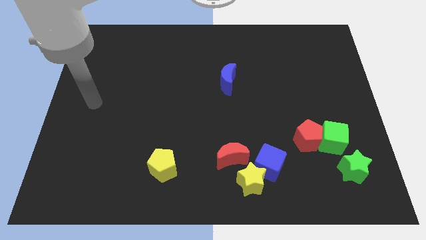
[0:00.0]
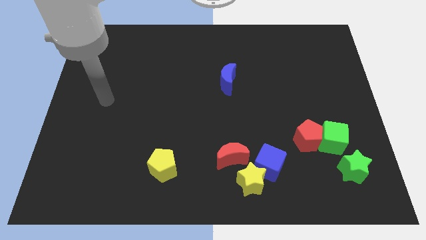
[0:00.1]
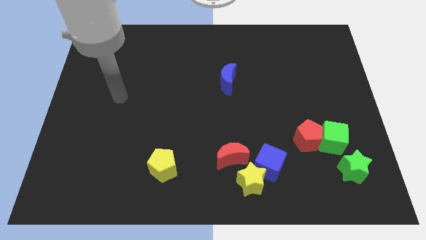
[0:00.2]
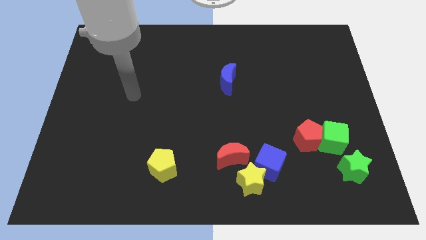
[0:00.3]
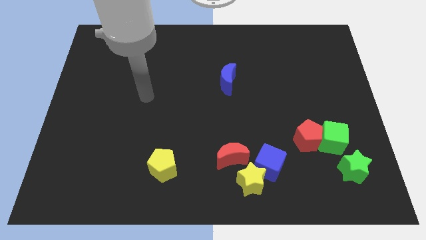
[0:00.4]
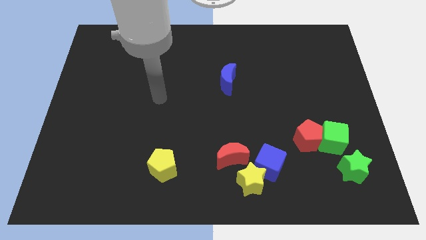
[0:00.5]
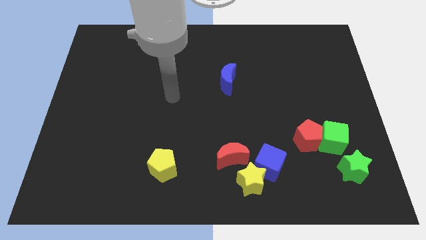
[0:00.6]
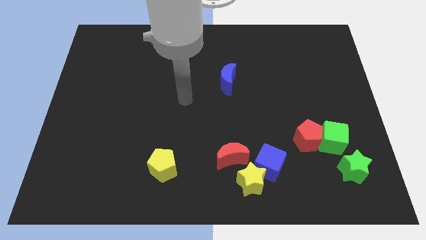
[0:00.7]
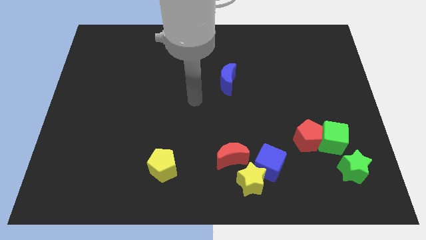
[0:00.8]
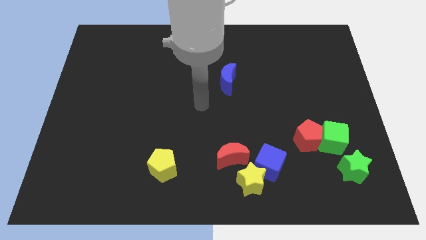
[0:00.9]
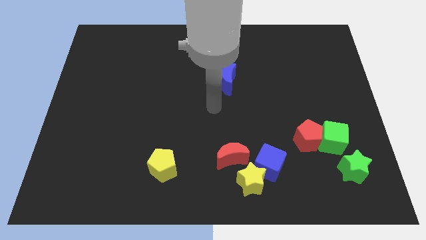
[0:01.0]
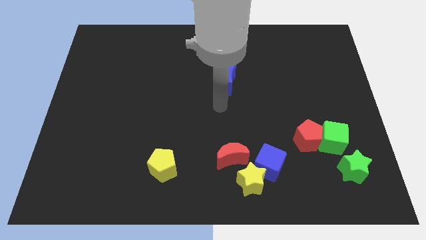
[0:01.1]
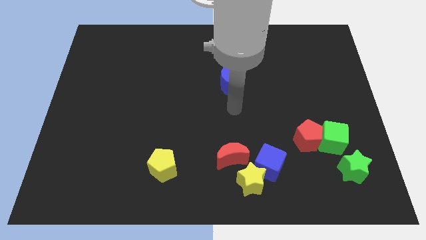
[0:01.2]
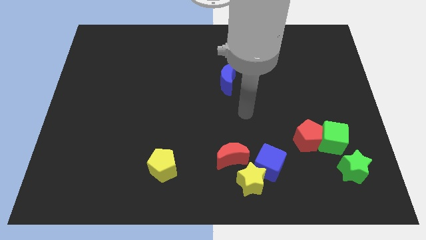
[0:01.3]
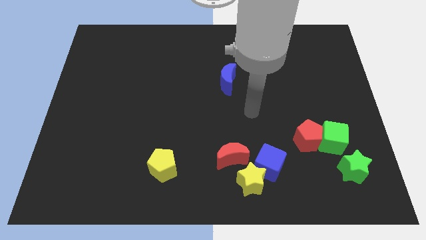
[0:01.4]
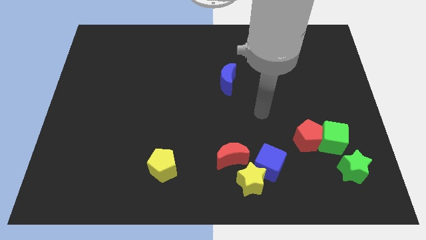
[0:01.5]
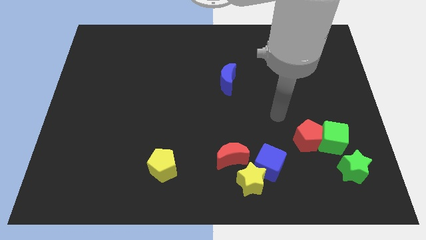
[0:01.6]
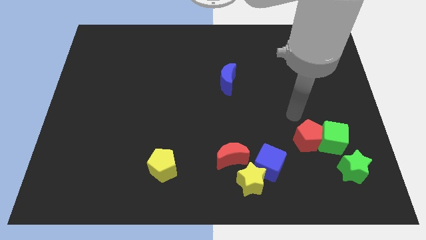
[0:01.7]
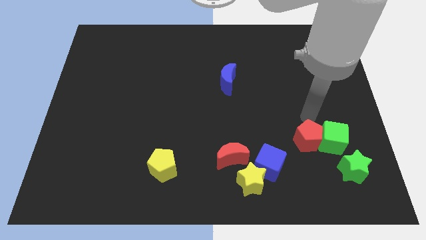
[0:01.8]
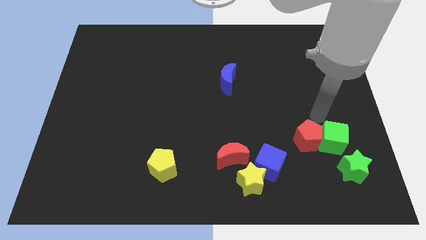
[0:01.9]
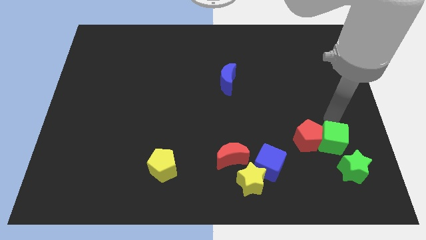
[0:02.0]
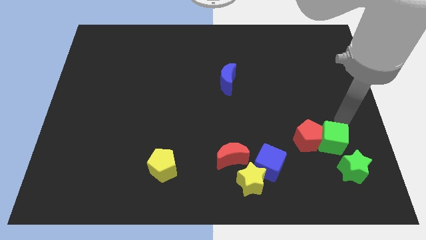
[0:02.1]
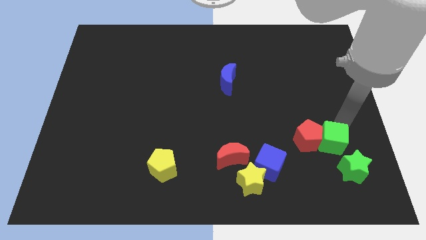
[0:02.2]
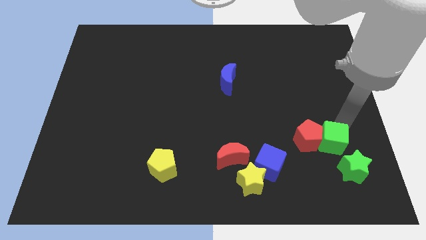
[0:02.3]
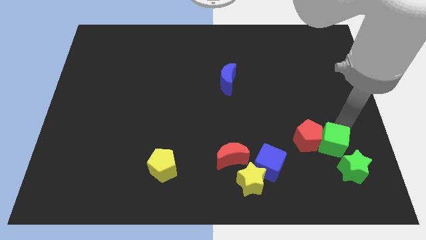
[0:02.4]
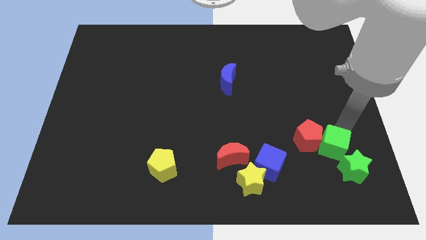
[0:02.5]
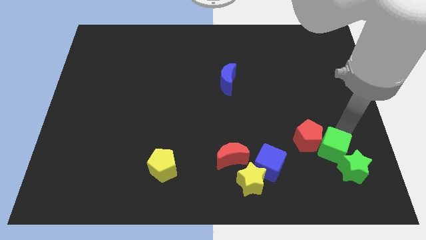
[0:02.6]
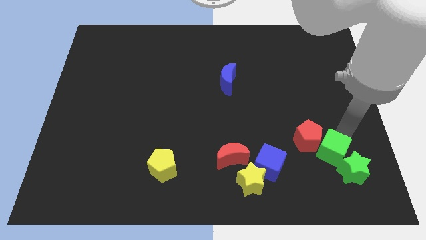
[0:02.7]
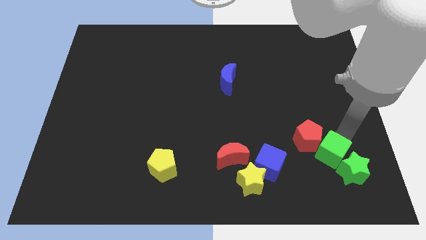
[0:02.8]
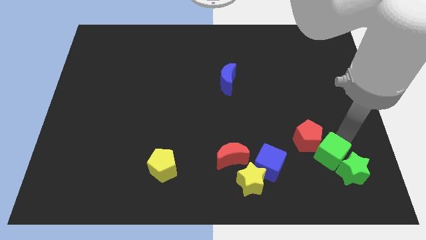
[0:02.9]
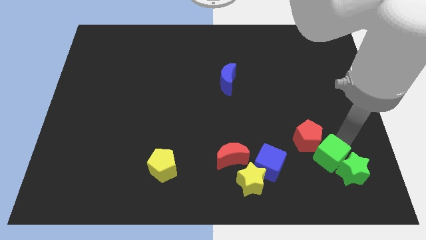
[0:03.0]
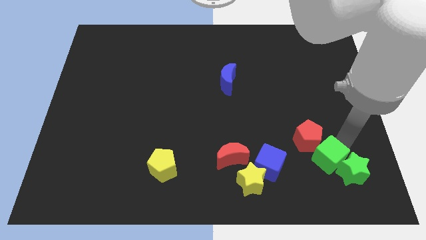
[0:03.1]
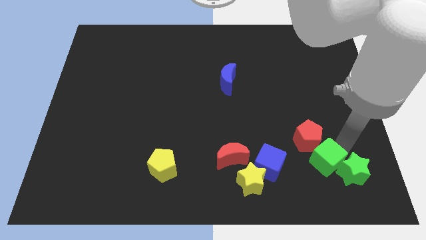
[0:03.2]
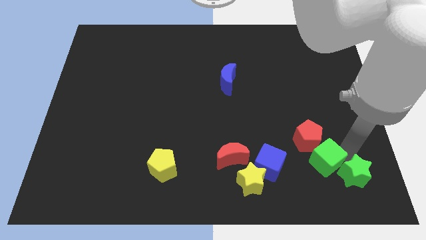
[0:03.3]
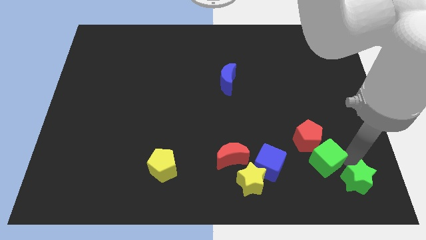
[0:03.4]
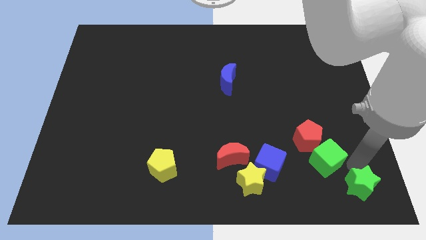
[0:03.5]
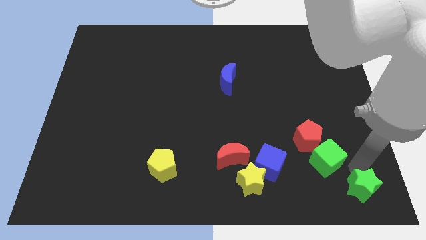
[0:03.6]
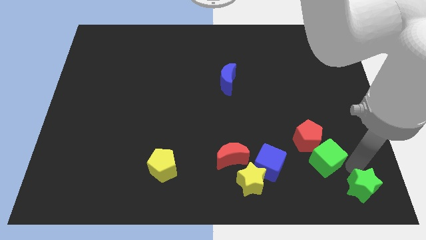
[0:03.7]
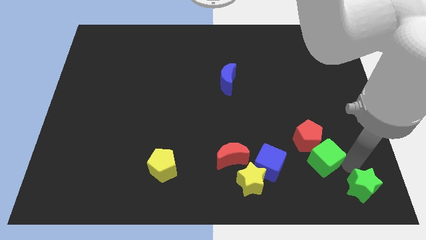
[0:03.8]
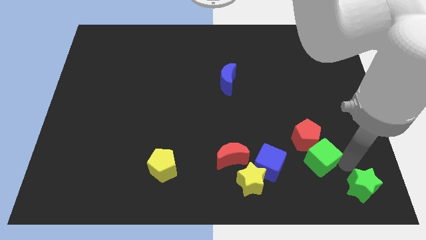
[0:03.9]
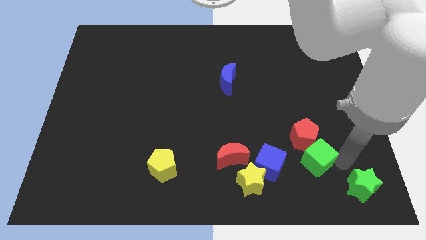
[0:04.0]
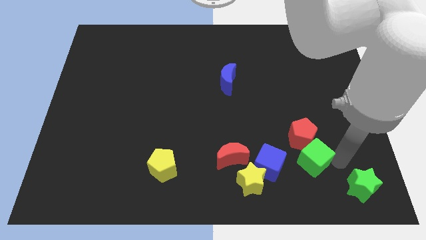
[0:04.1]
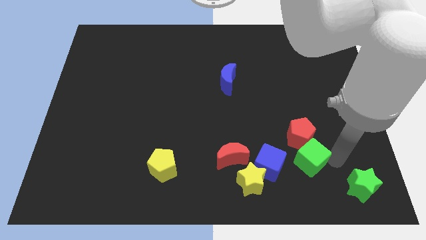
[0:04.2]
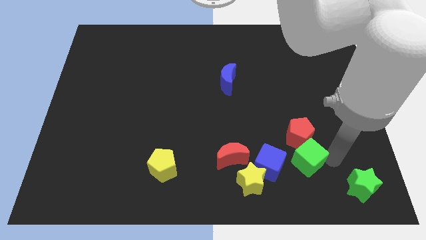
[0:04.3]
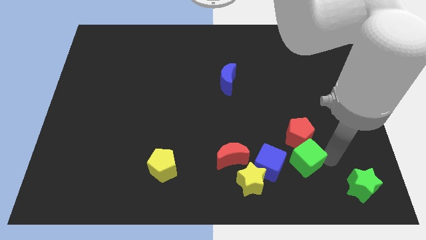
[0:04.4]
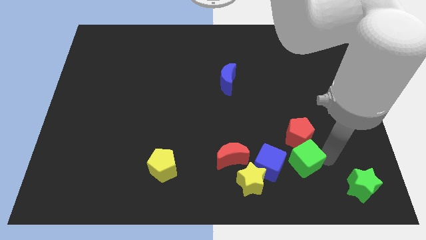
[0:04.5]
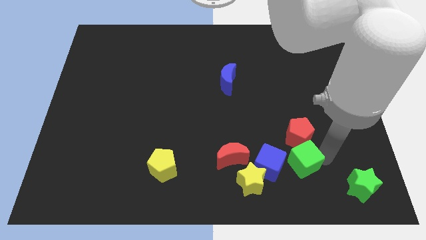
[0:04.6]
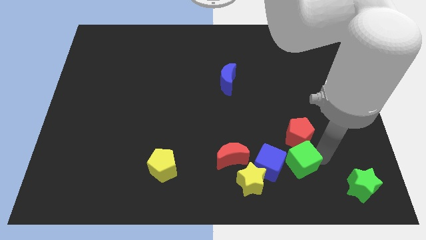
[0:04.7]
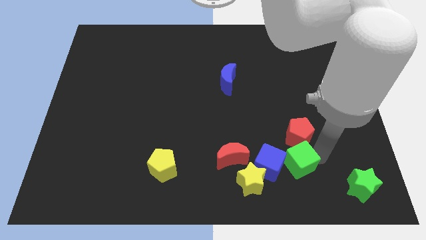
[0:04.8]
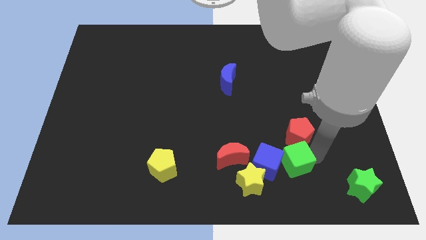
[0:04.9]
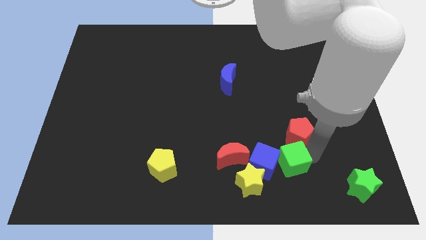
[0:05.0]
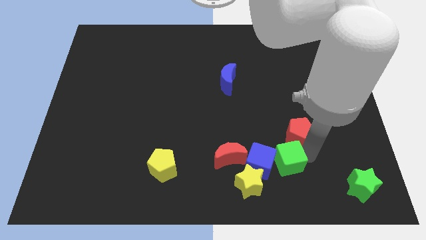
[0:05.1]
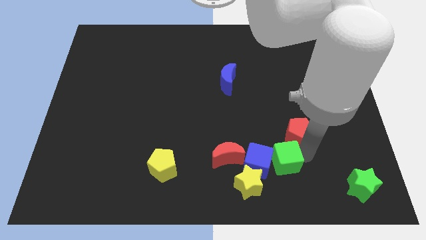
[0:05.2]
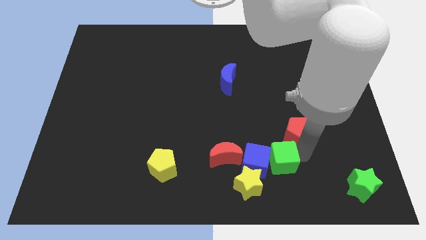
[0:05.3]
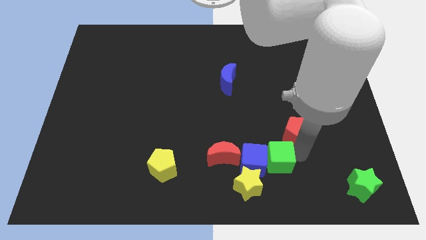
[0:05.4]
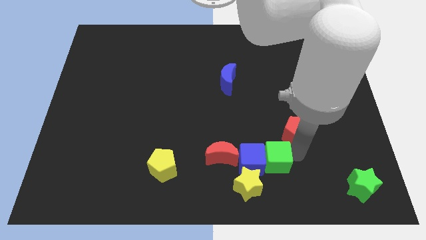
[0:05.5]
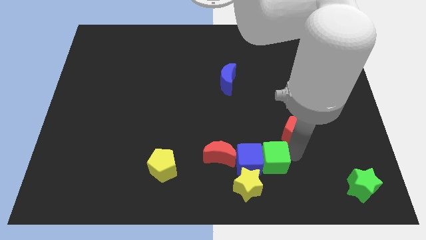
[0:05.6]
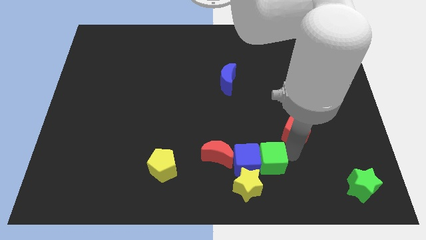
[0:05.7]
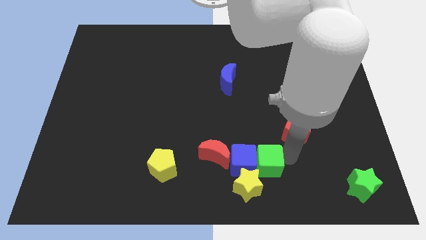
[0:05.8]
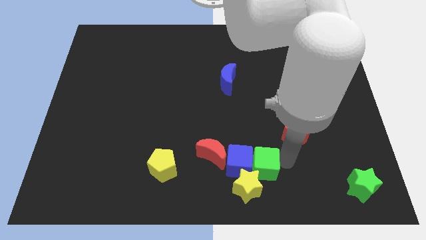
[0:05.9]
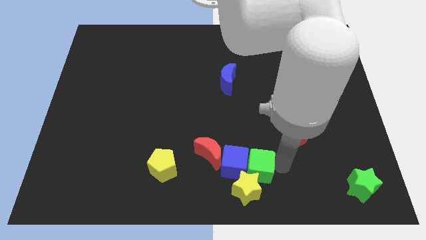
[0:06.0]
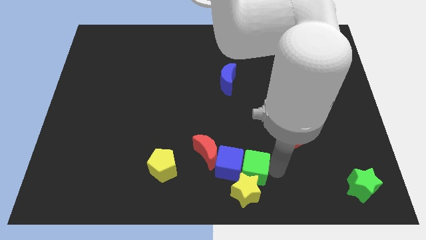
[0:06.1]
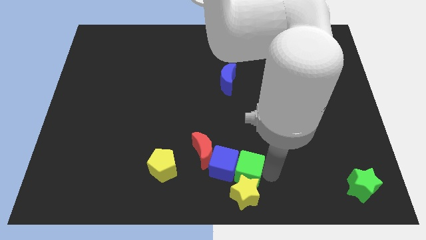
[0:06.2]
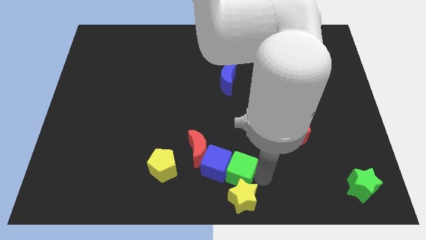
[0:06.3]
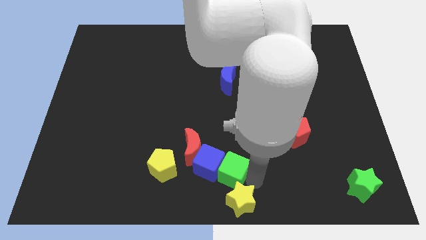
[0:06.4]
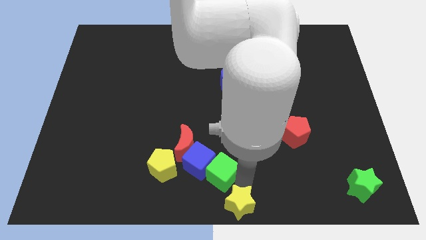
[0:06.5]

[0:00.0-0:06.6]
slide the green cube left

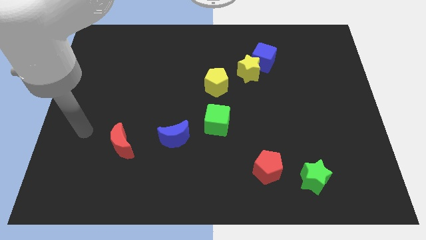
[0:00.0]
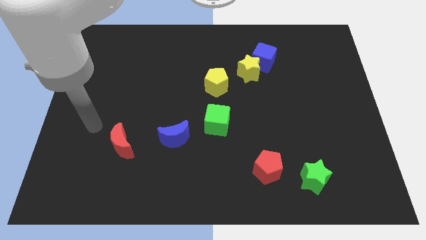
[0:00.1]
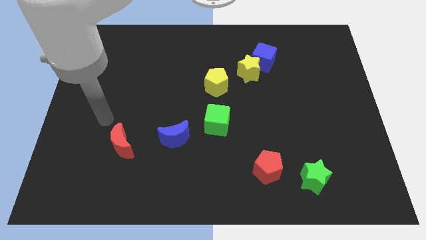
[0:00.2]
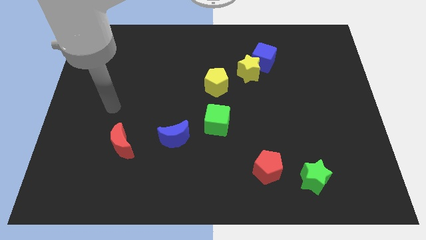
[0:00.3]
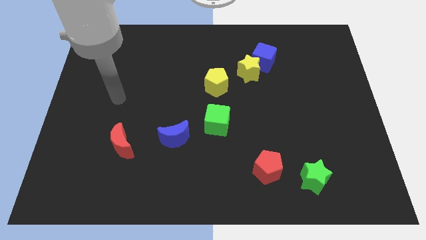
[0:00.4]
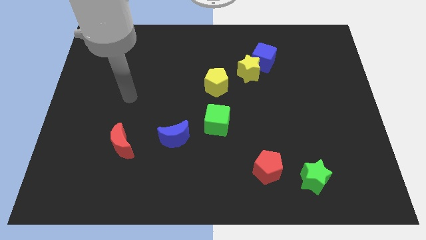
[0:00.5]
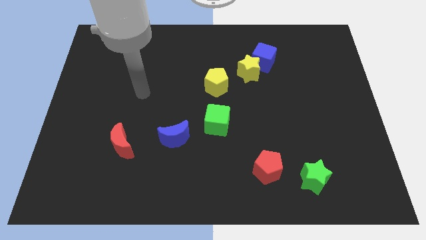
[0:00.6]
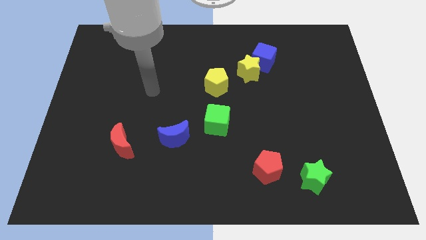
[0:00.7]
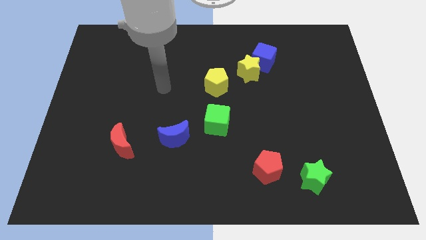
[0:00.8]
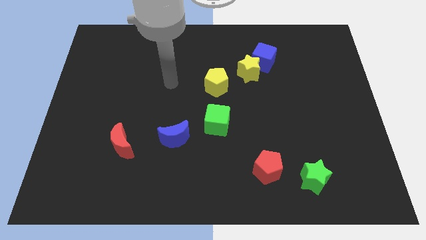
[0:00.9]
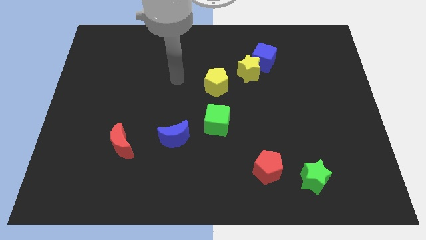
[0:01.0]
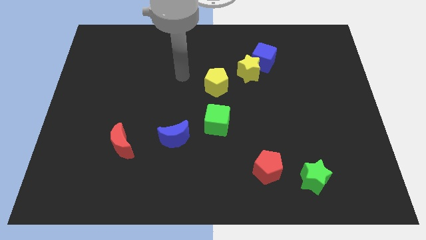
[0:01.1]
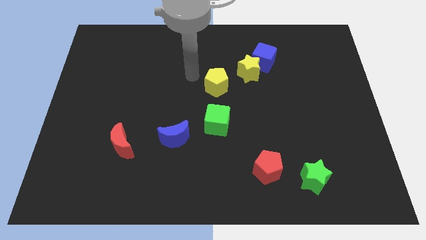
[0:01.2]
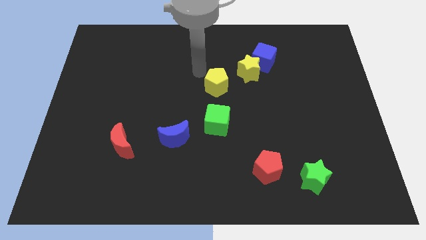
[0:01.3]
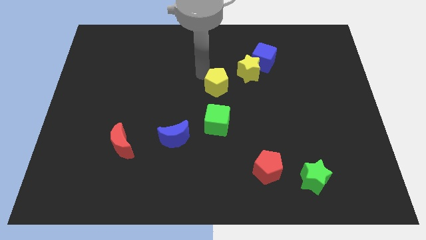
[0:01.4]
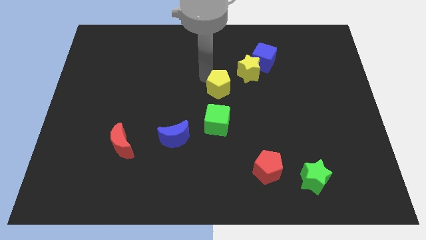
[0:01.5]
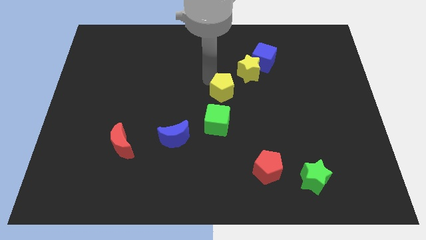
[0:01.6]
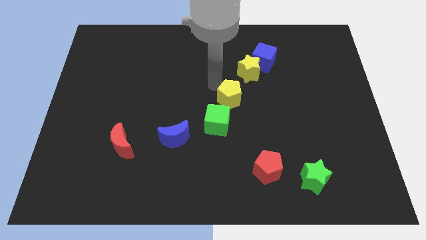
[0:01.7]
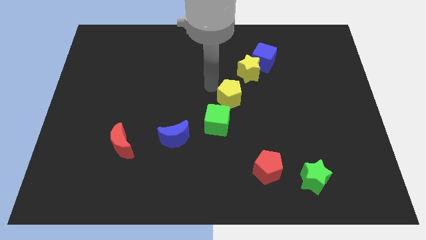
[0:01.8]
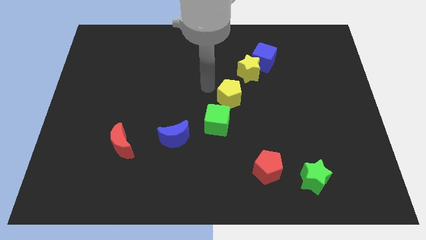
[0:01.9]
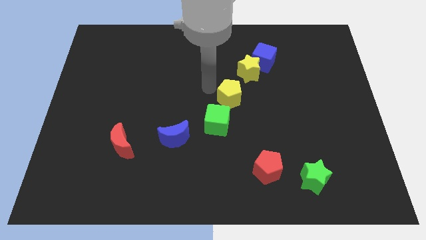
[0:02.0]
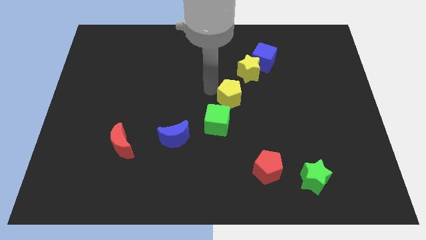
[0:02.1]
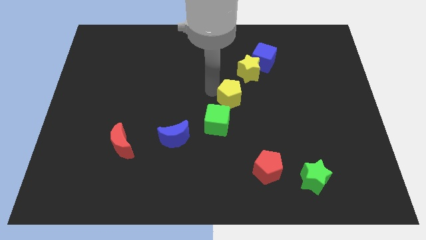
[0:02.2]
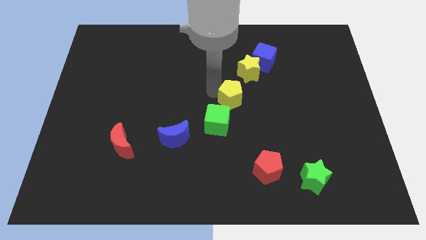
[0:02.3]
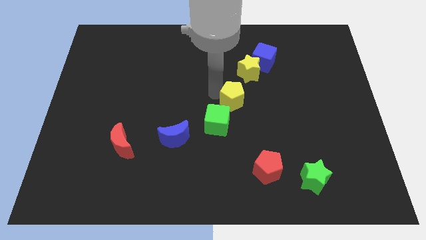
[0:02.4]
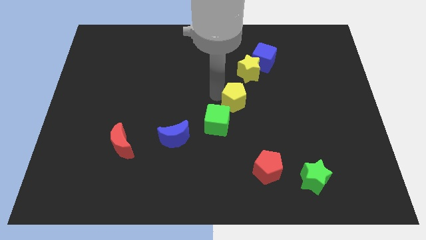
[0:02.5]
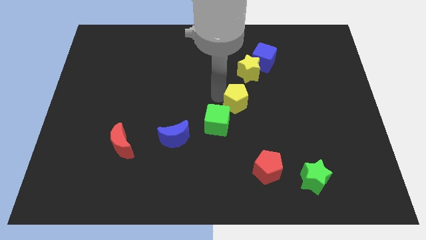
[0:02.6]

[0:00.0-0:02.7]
slide the yellow pentagon downwards and to the right diagonally somewhat
